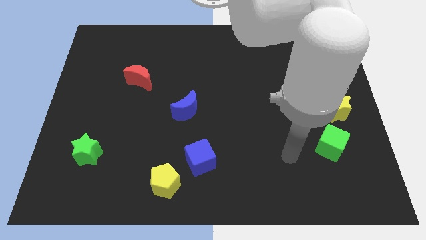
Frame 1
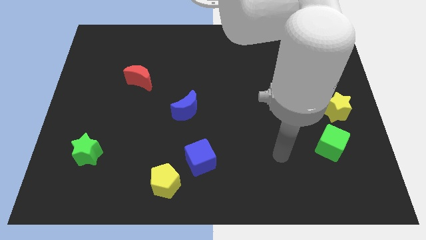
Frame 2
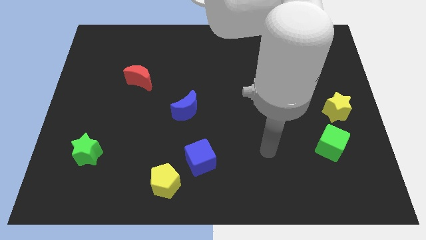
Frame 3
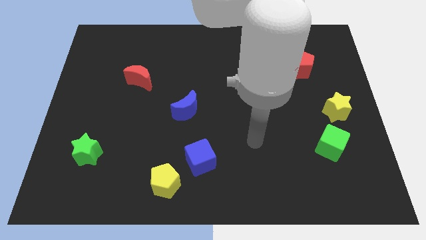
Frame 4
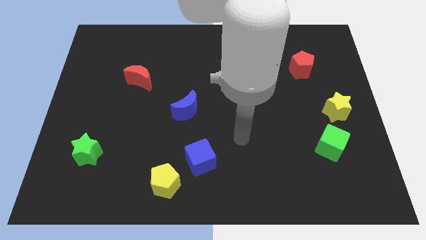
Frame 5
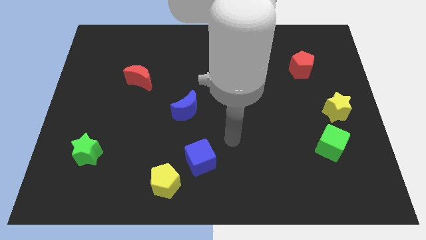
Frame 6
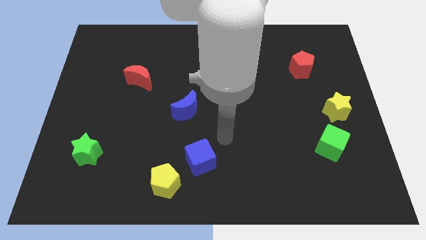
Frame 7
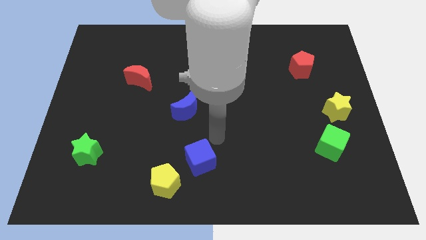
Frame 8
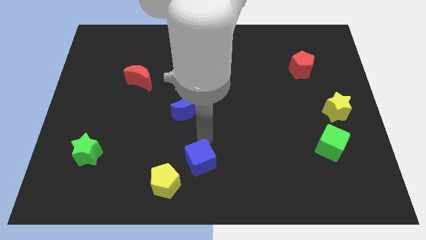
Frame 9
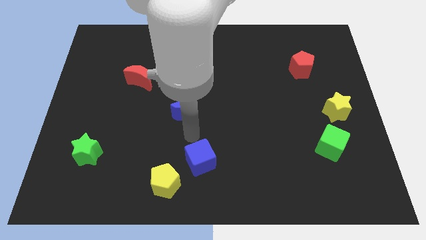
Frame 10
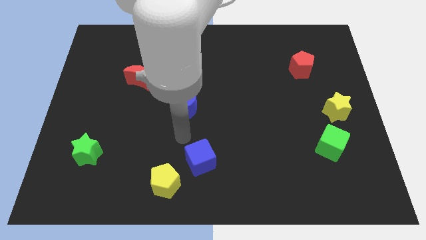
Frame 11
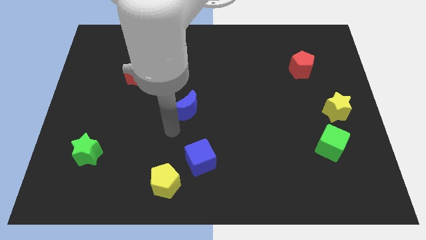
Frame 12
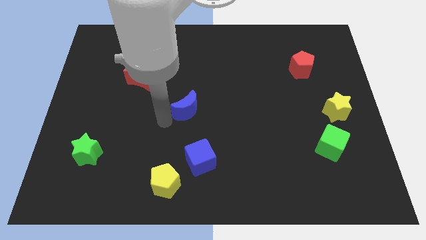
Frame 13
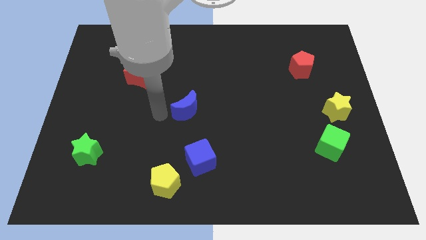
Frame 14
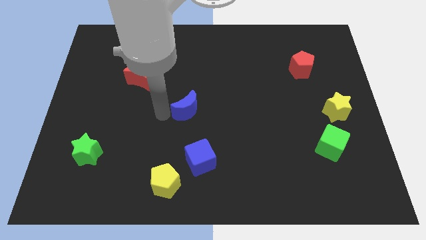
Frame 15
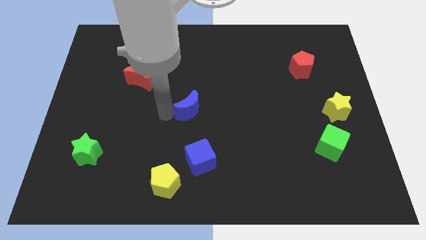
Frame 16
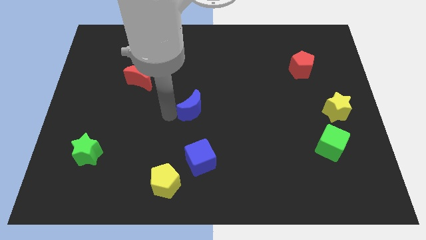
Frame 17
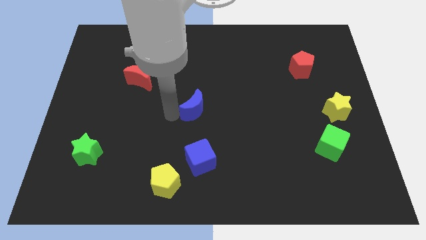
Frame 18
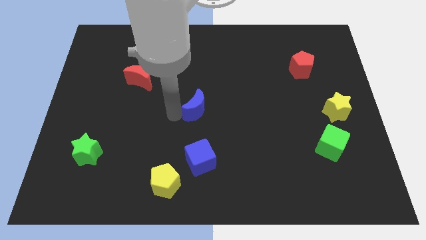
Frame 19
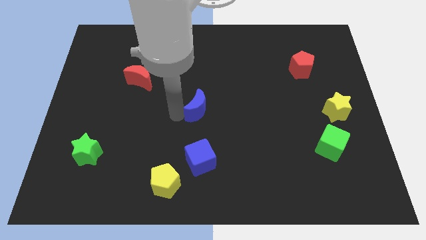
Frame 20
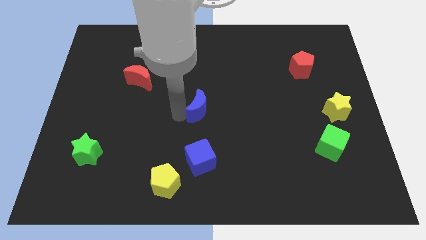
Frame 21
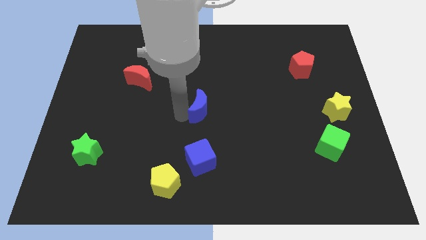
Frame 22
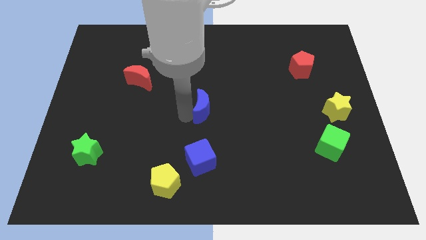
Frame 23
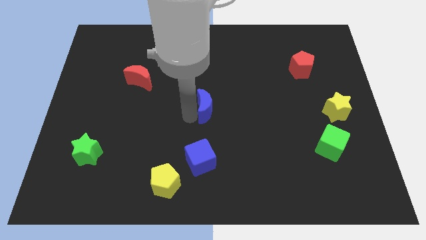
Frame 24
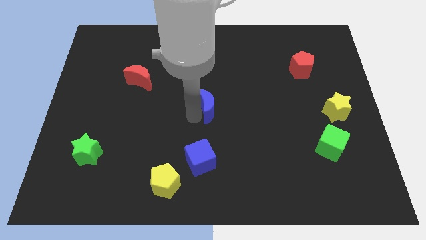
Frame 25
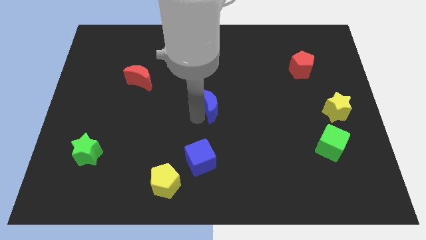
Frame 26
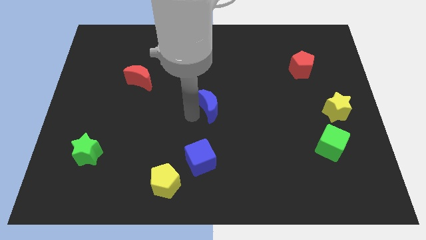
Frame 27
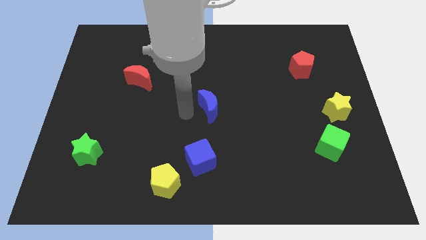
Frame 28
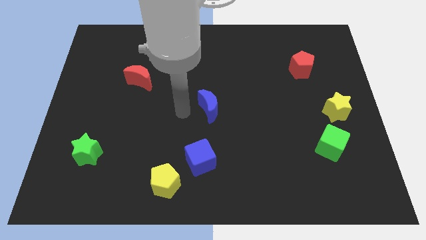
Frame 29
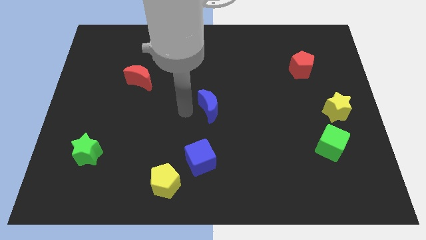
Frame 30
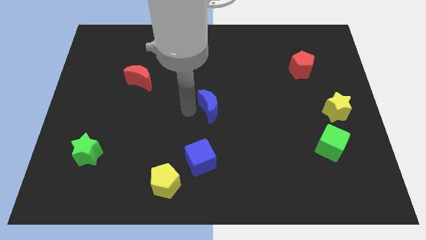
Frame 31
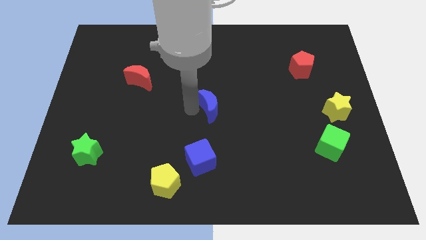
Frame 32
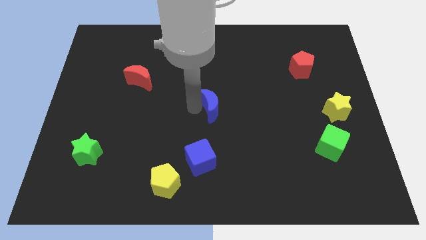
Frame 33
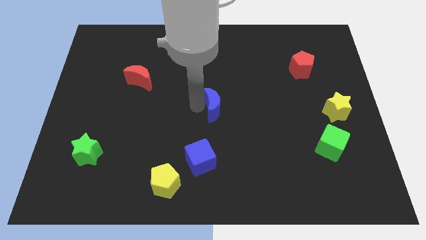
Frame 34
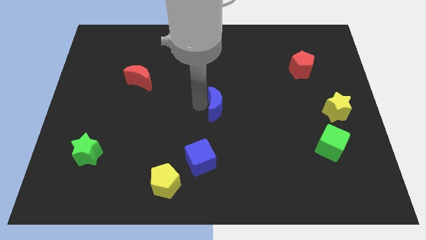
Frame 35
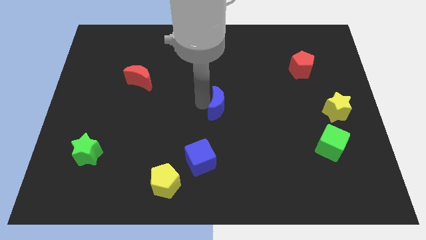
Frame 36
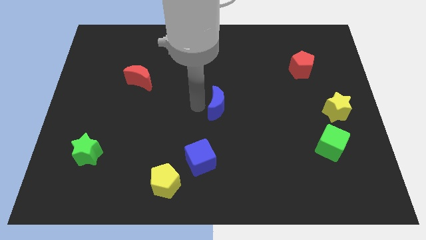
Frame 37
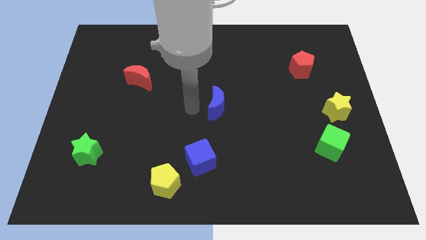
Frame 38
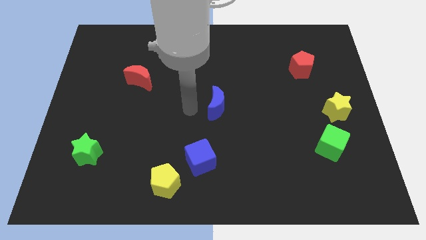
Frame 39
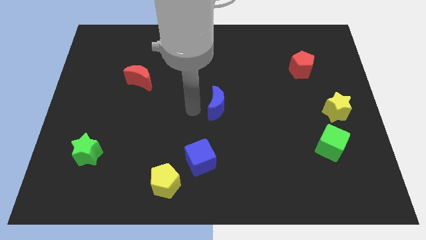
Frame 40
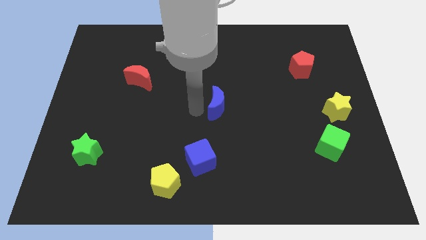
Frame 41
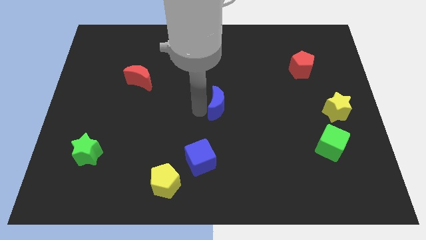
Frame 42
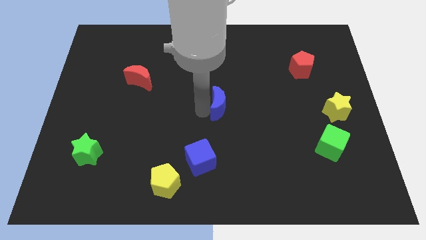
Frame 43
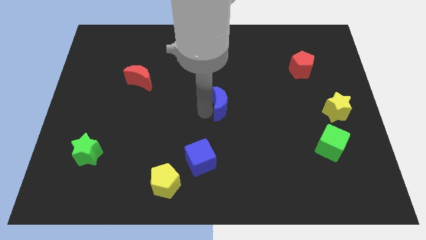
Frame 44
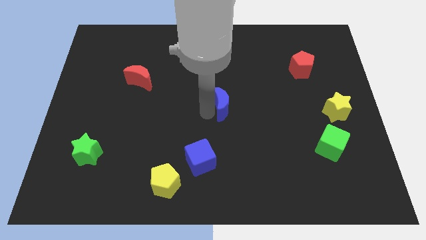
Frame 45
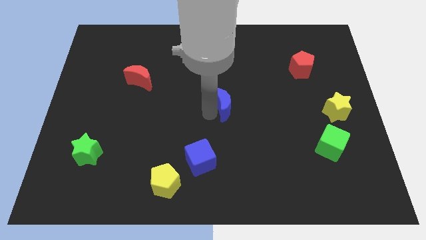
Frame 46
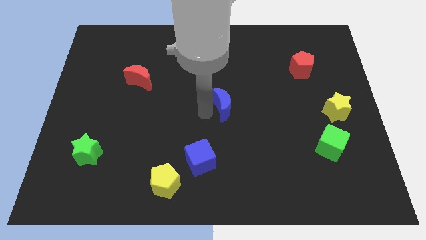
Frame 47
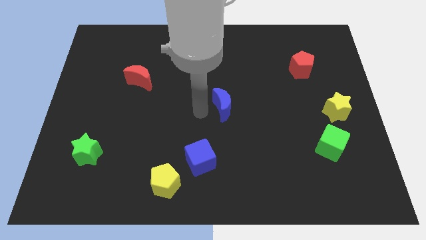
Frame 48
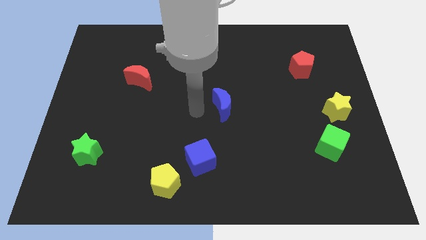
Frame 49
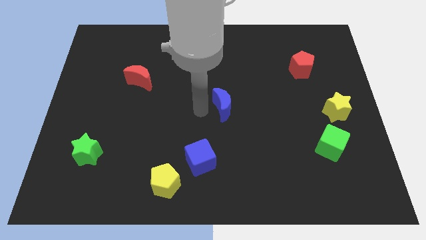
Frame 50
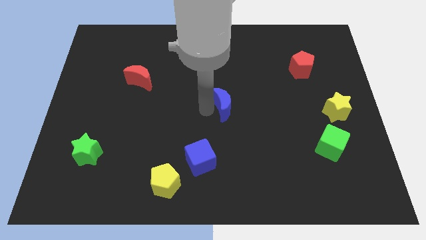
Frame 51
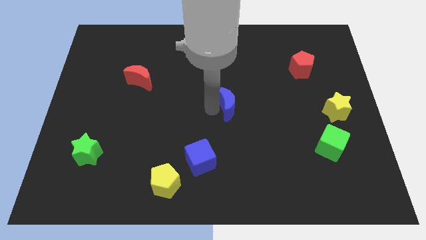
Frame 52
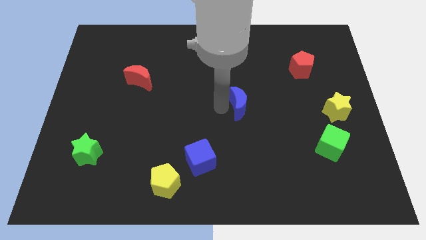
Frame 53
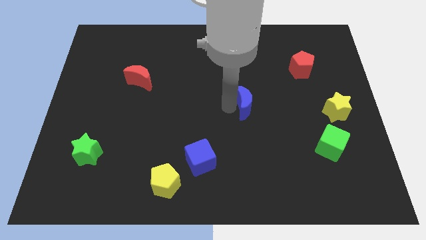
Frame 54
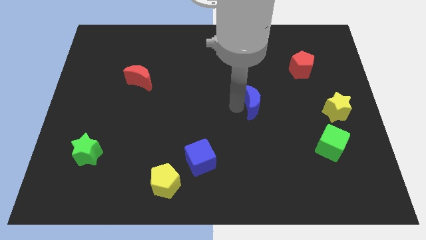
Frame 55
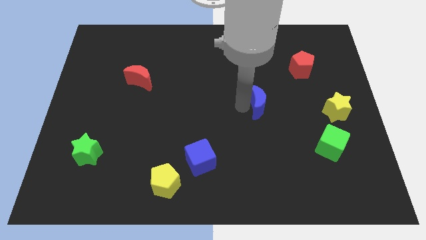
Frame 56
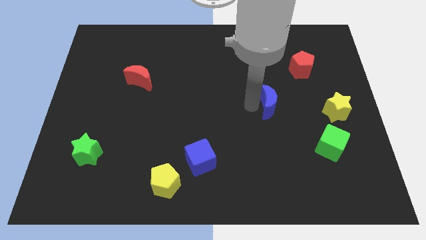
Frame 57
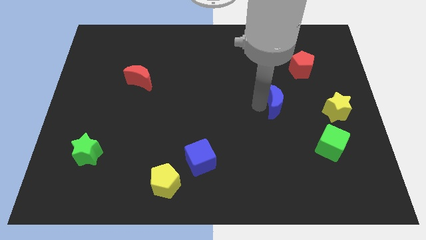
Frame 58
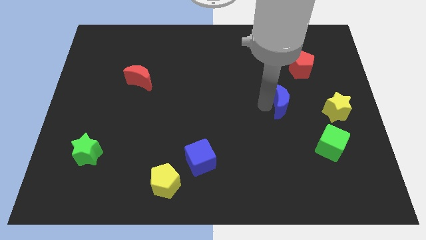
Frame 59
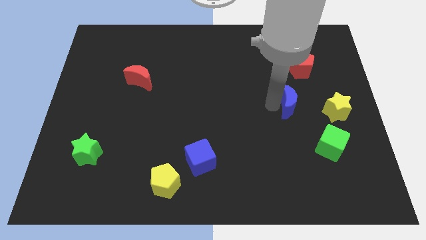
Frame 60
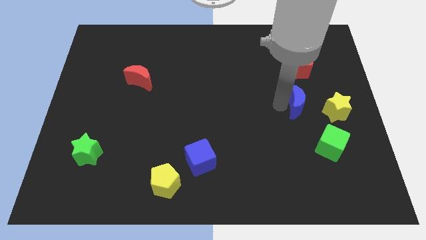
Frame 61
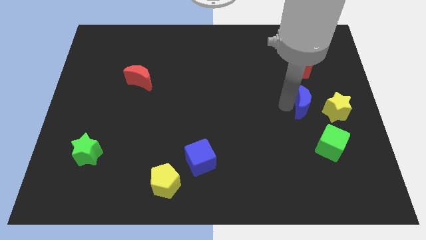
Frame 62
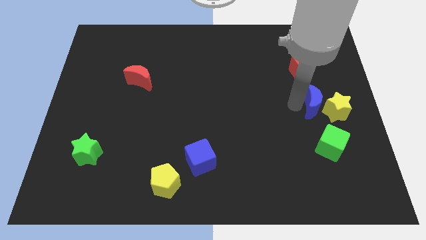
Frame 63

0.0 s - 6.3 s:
push the blue moon next to the yellow star

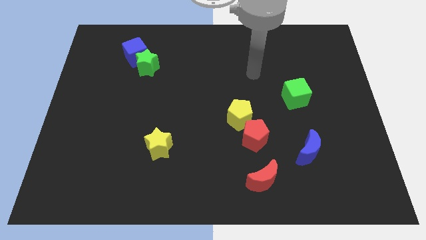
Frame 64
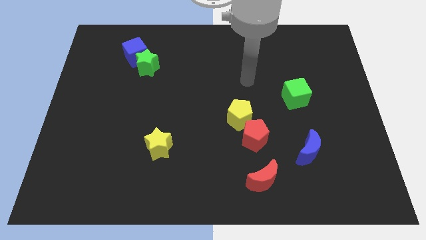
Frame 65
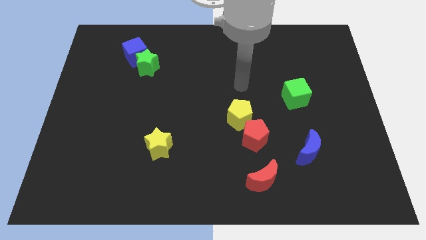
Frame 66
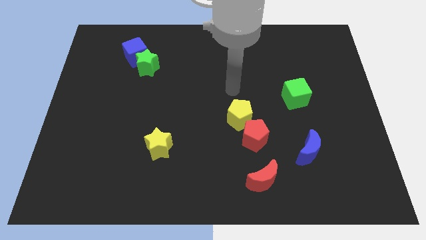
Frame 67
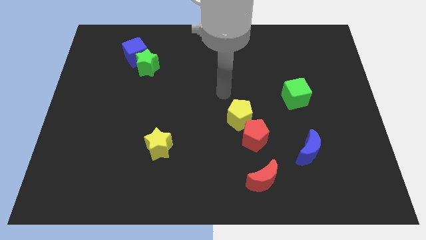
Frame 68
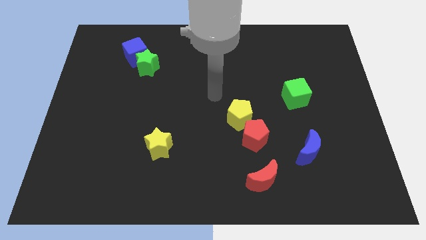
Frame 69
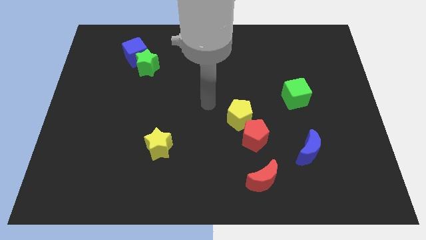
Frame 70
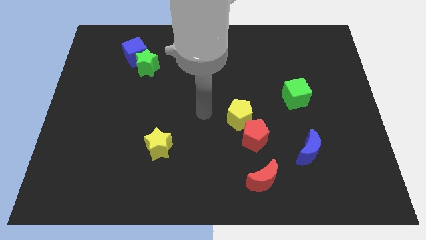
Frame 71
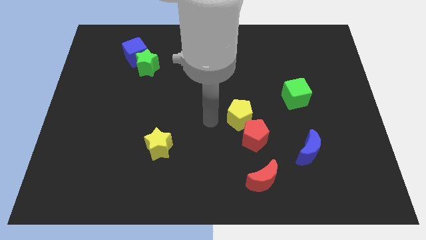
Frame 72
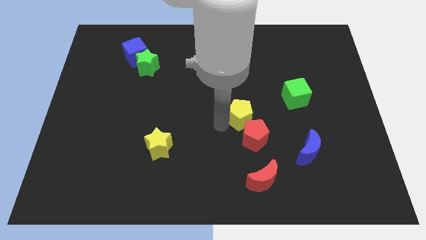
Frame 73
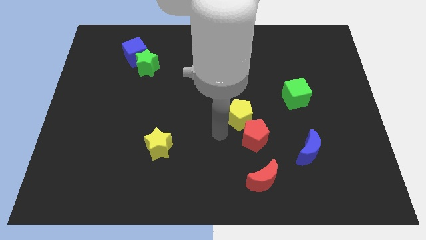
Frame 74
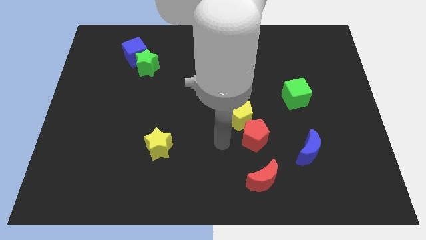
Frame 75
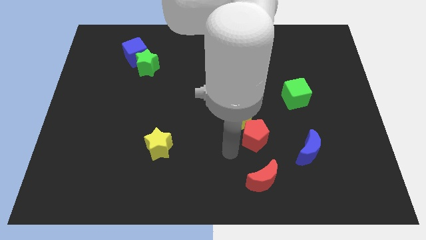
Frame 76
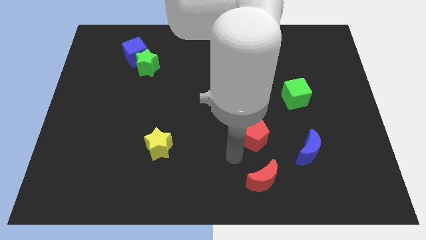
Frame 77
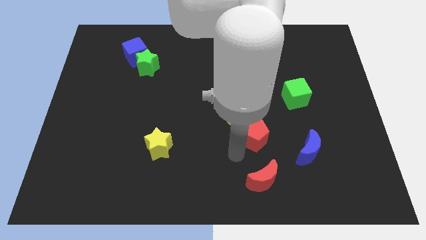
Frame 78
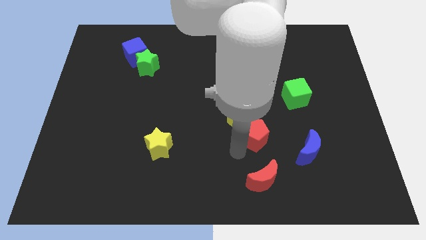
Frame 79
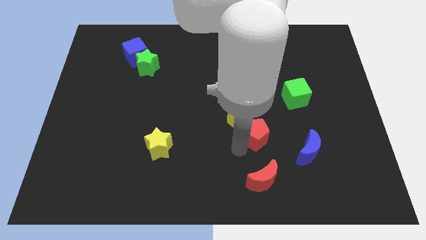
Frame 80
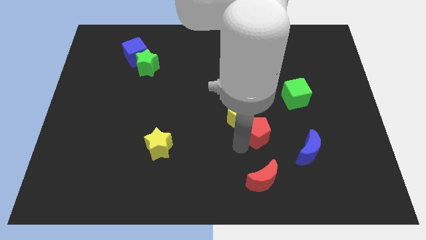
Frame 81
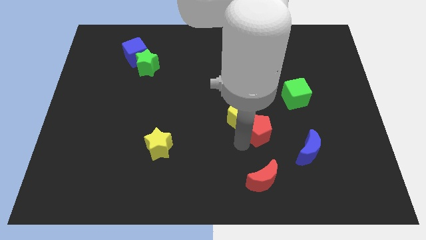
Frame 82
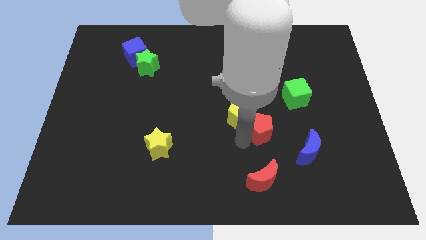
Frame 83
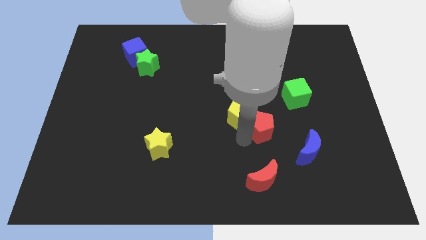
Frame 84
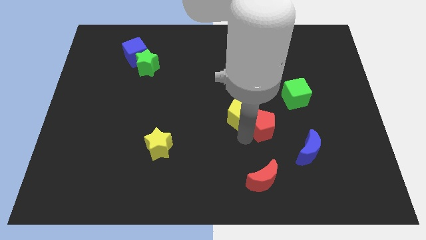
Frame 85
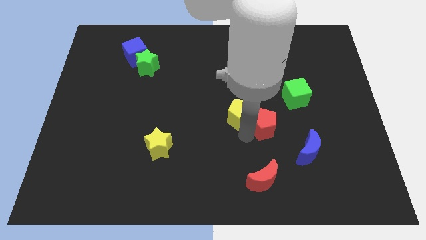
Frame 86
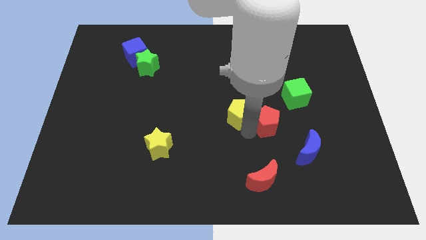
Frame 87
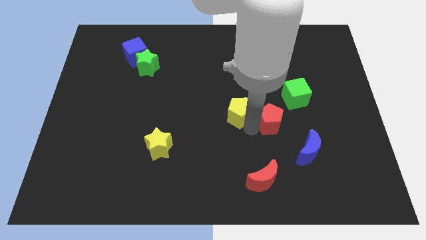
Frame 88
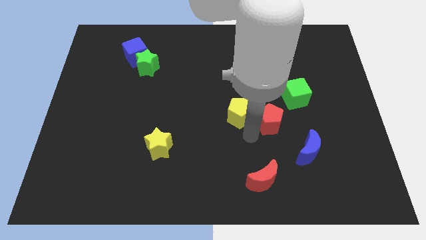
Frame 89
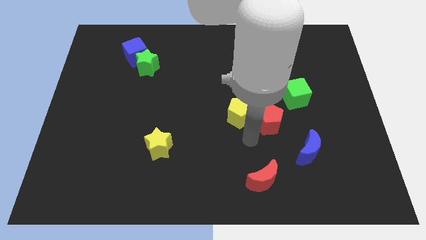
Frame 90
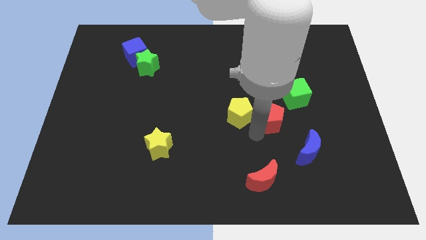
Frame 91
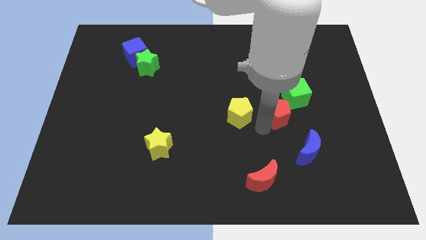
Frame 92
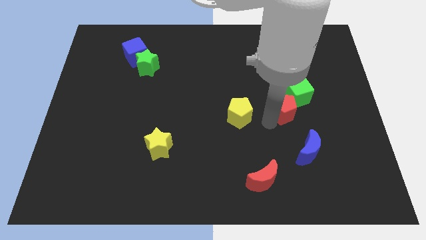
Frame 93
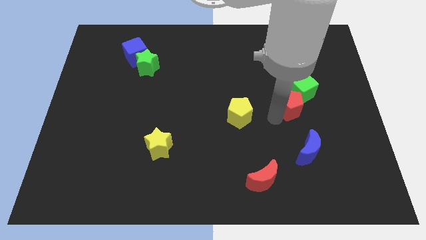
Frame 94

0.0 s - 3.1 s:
move the red pentagon towards the green cube
